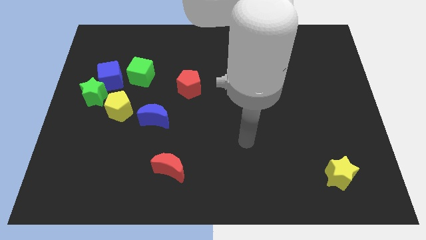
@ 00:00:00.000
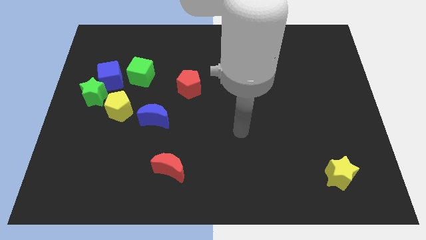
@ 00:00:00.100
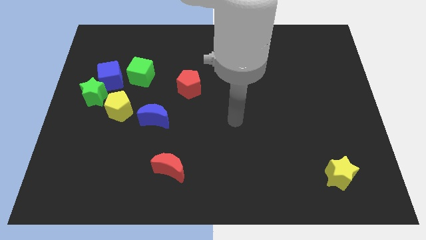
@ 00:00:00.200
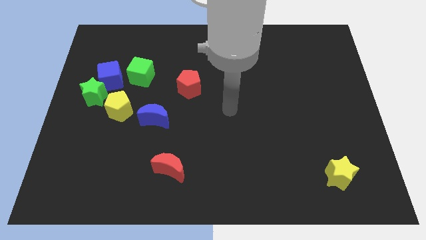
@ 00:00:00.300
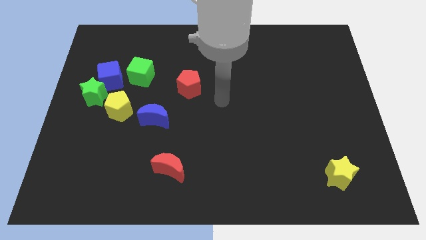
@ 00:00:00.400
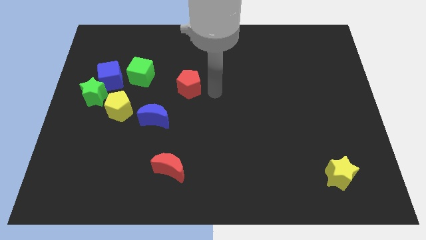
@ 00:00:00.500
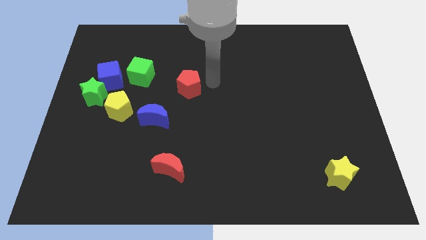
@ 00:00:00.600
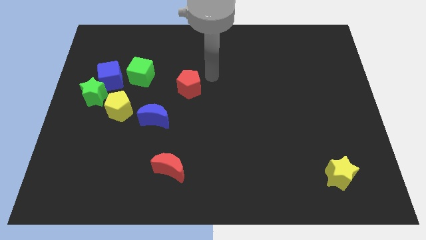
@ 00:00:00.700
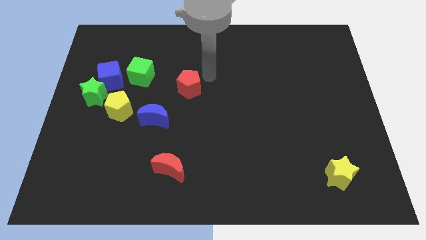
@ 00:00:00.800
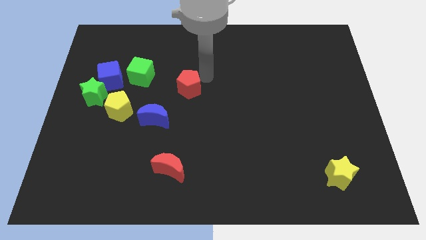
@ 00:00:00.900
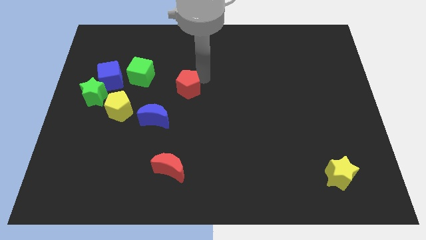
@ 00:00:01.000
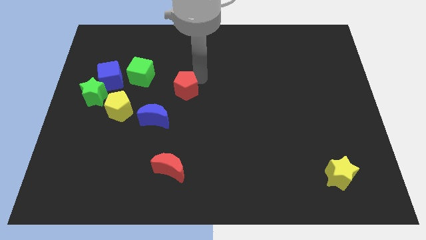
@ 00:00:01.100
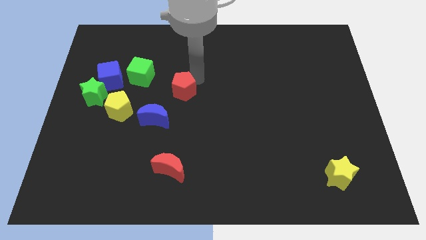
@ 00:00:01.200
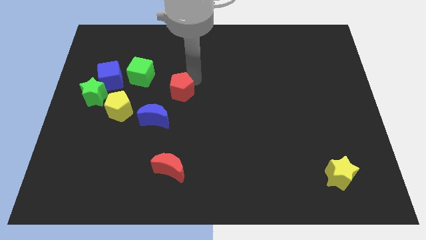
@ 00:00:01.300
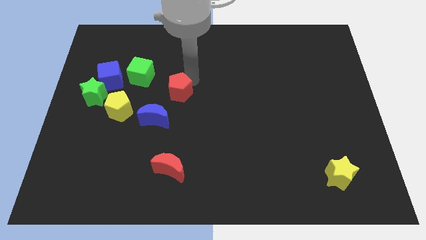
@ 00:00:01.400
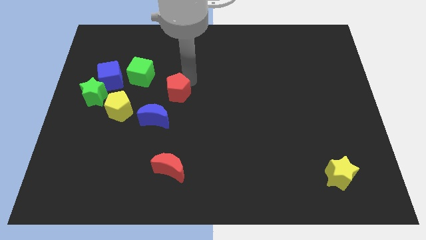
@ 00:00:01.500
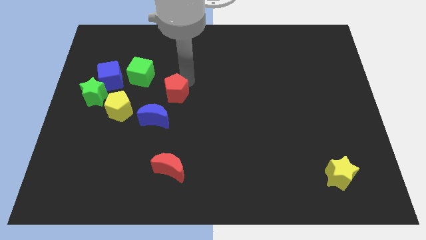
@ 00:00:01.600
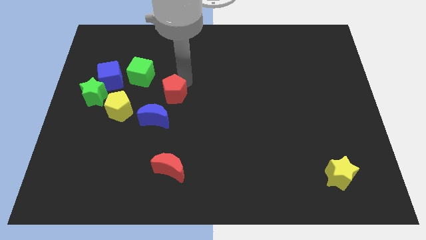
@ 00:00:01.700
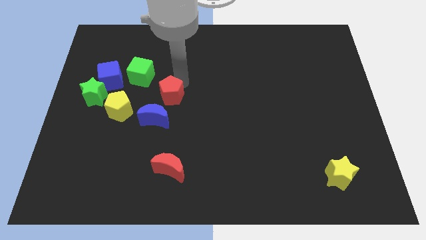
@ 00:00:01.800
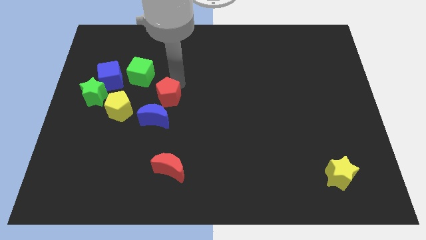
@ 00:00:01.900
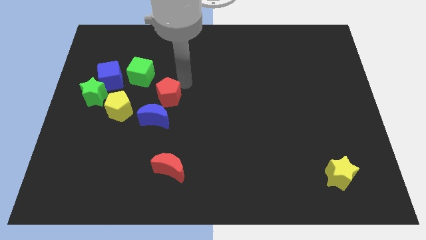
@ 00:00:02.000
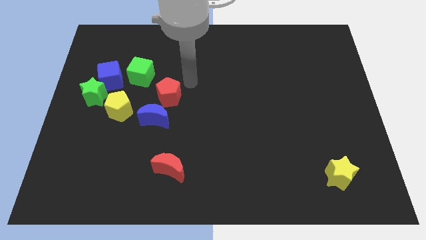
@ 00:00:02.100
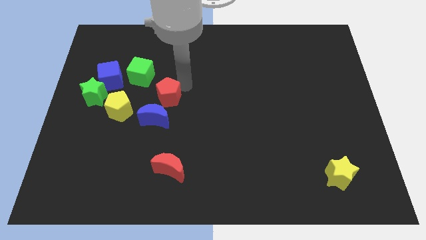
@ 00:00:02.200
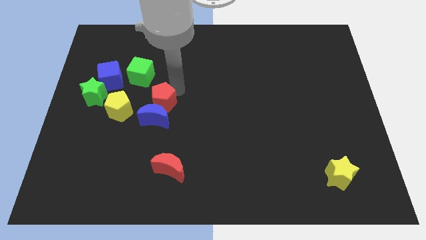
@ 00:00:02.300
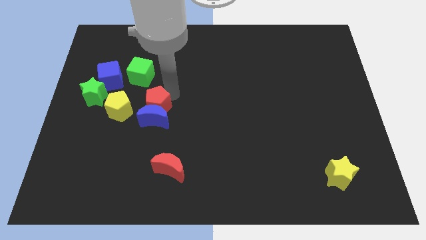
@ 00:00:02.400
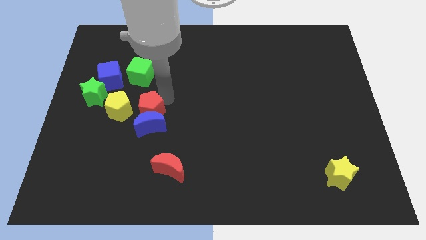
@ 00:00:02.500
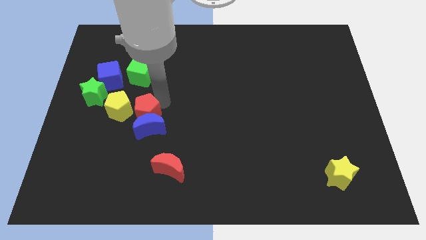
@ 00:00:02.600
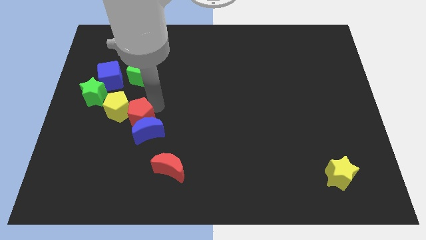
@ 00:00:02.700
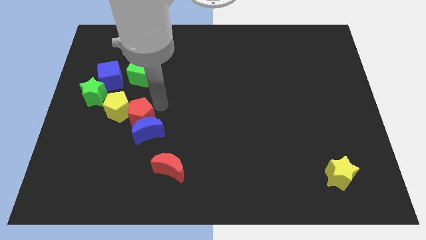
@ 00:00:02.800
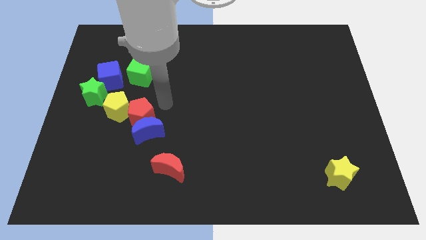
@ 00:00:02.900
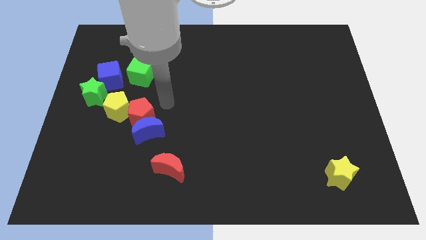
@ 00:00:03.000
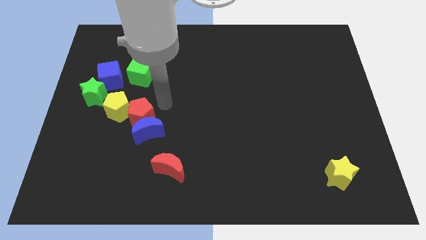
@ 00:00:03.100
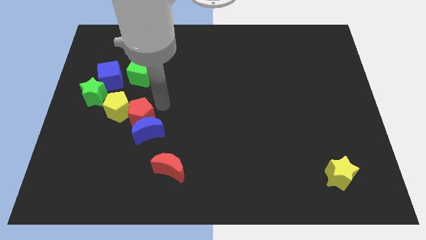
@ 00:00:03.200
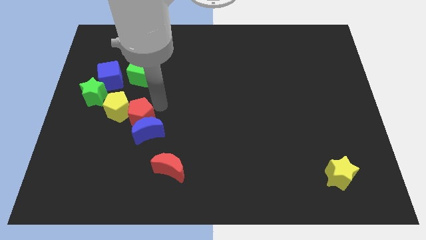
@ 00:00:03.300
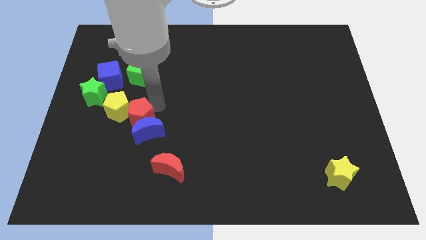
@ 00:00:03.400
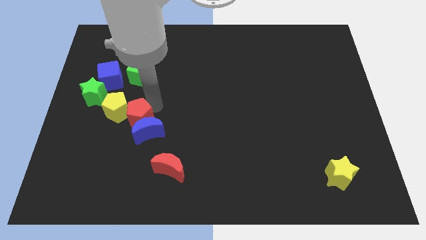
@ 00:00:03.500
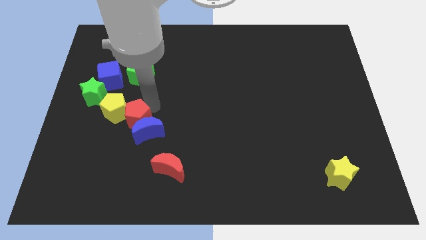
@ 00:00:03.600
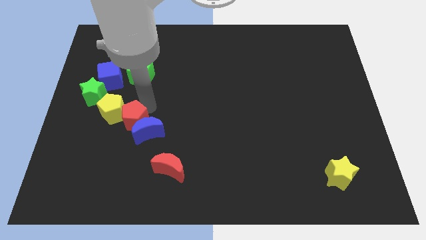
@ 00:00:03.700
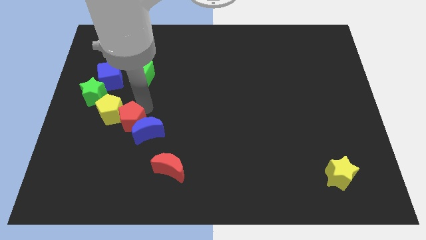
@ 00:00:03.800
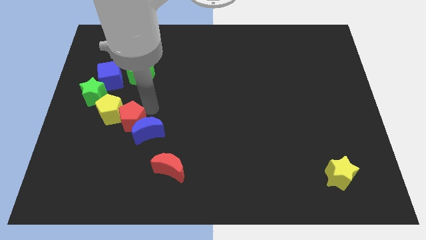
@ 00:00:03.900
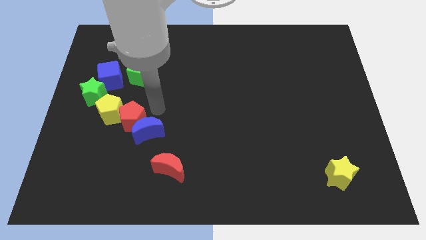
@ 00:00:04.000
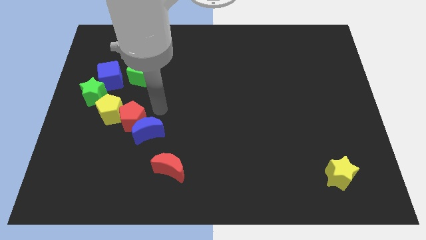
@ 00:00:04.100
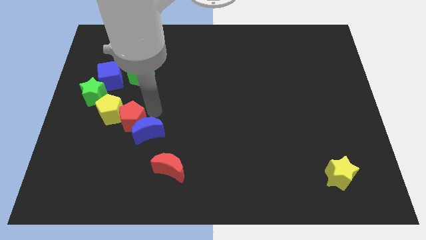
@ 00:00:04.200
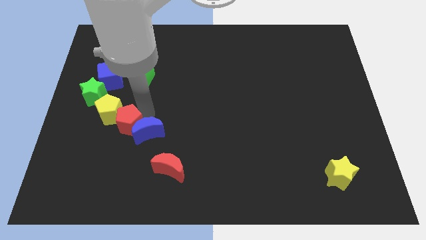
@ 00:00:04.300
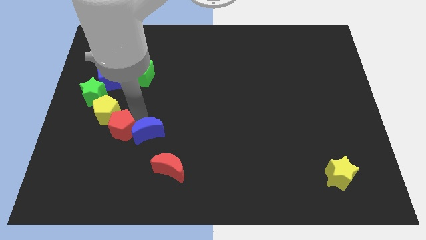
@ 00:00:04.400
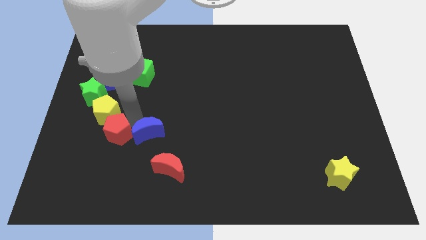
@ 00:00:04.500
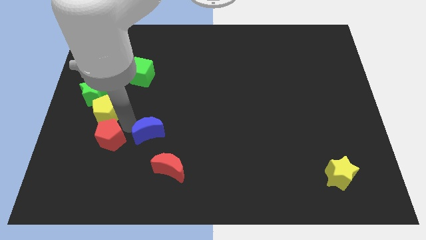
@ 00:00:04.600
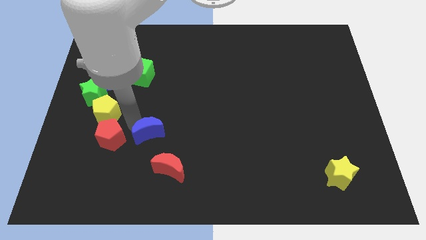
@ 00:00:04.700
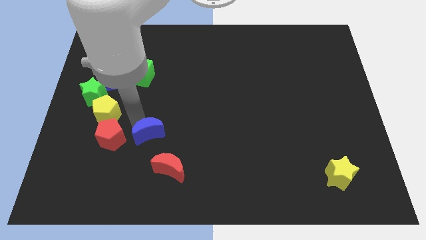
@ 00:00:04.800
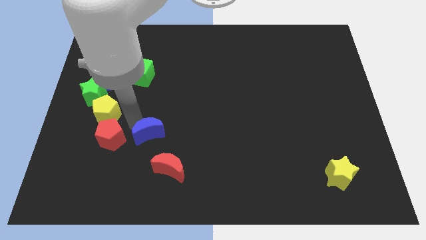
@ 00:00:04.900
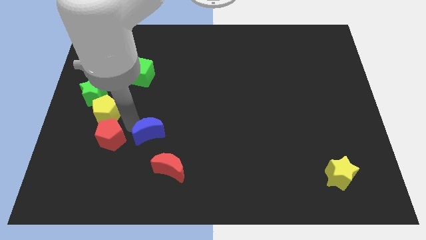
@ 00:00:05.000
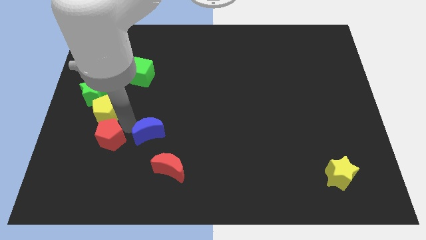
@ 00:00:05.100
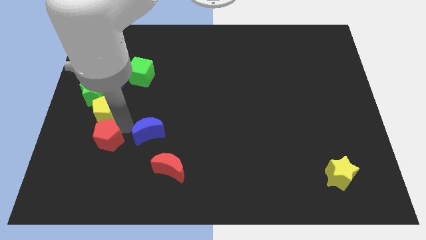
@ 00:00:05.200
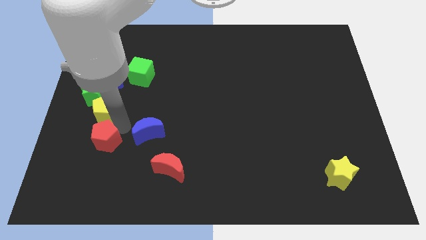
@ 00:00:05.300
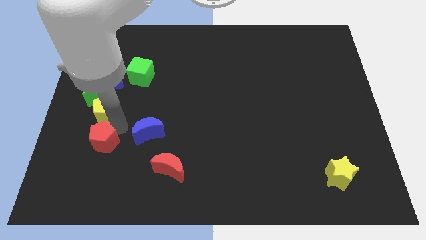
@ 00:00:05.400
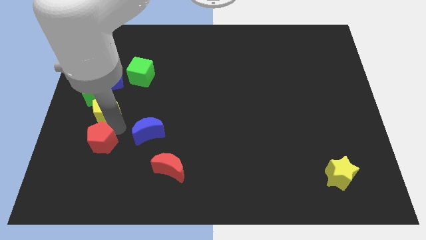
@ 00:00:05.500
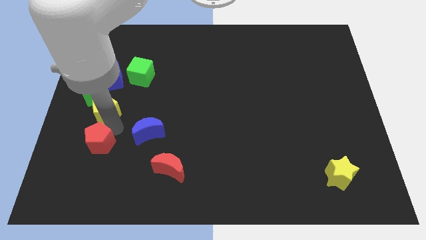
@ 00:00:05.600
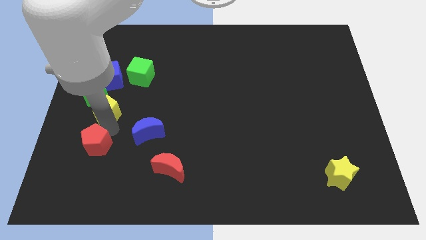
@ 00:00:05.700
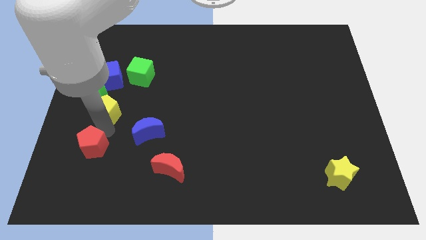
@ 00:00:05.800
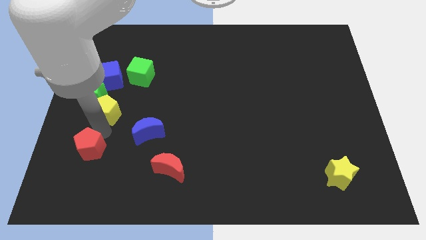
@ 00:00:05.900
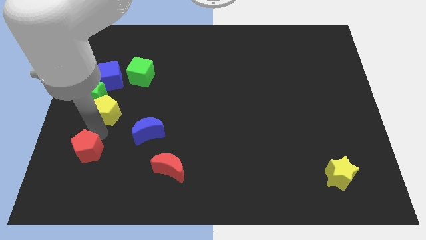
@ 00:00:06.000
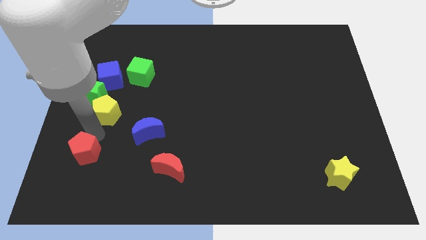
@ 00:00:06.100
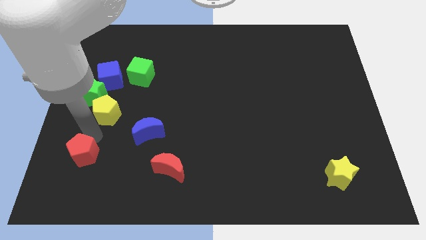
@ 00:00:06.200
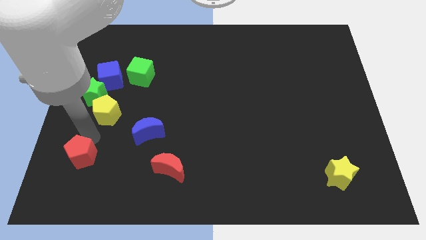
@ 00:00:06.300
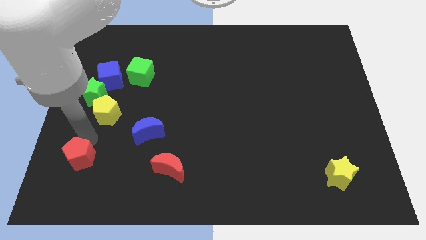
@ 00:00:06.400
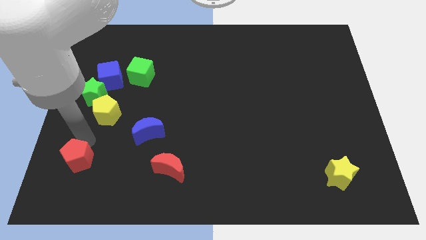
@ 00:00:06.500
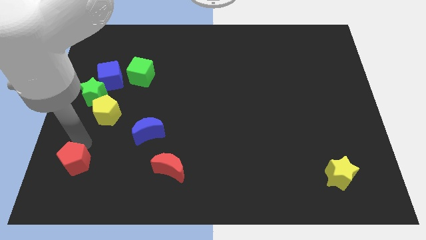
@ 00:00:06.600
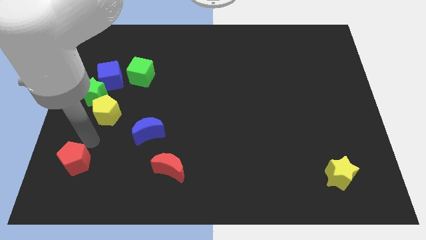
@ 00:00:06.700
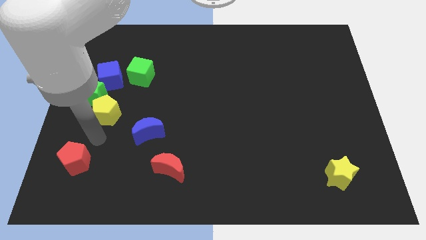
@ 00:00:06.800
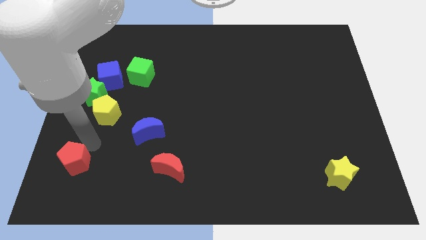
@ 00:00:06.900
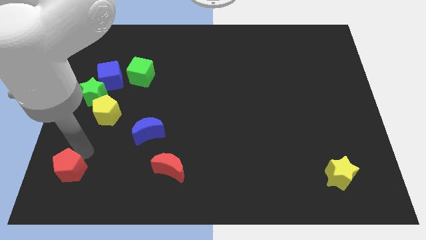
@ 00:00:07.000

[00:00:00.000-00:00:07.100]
put the red pentagon to the bottom left of the board
